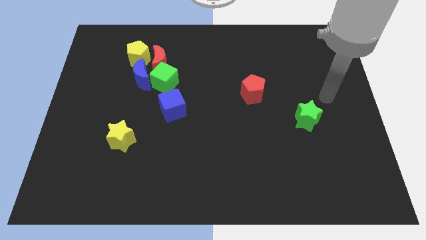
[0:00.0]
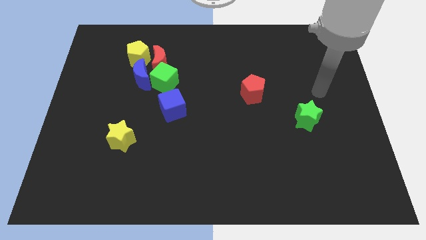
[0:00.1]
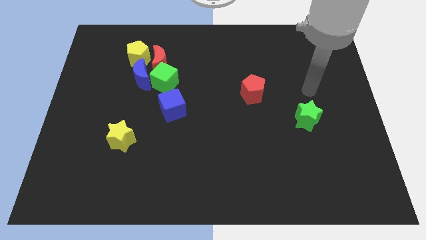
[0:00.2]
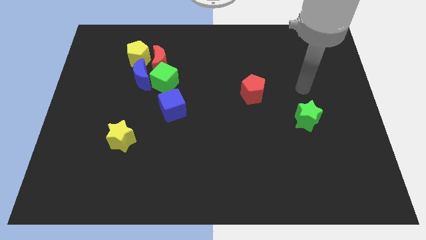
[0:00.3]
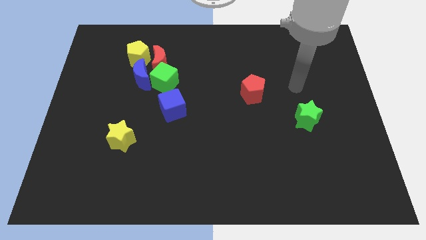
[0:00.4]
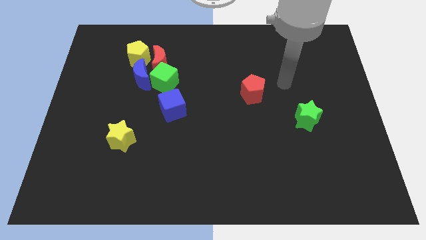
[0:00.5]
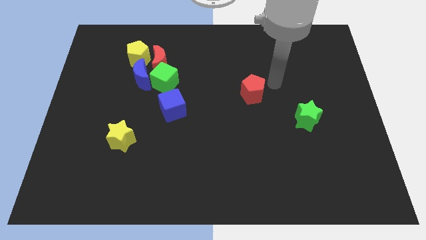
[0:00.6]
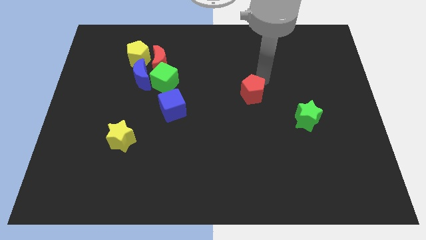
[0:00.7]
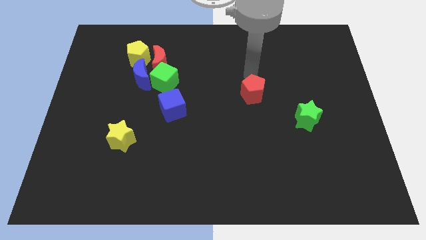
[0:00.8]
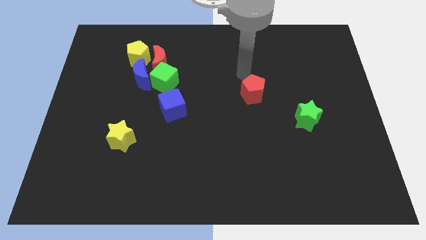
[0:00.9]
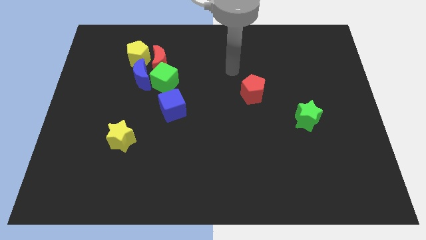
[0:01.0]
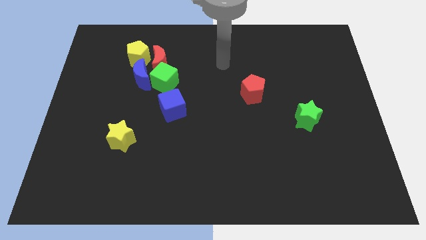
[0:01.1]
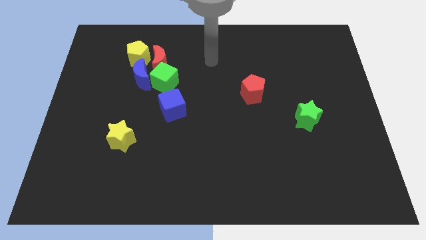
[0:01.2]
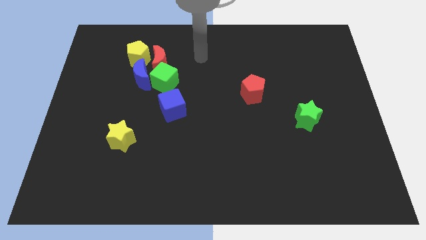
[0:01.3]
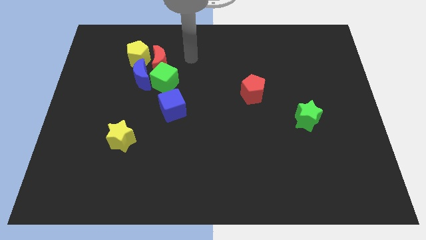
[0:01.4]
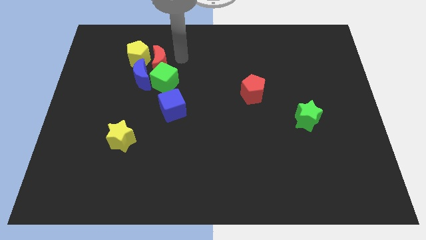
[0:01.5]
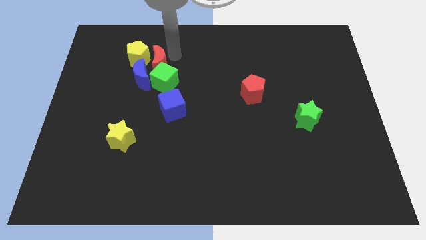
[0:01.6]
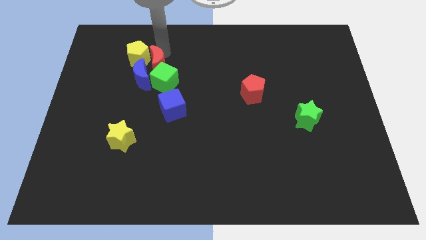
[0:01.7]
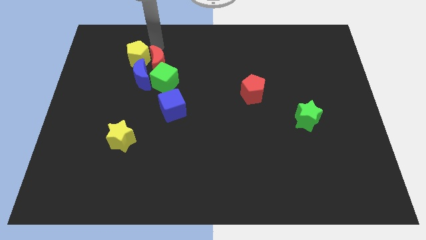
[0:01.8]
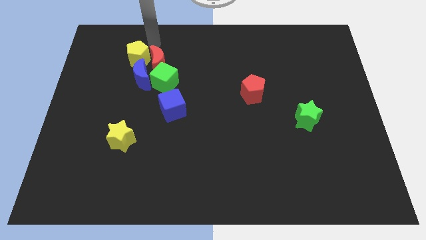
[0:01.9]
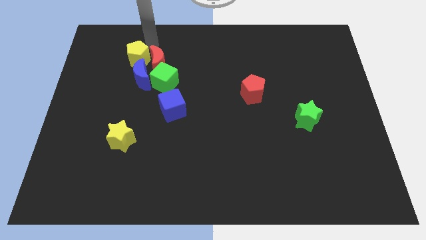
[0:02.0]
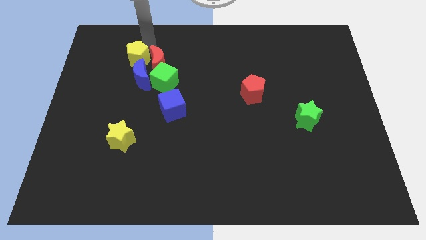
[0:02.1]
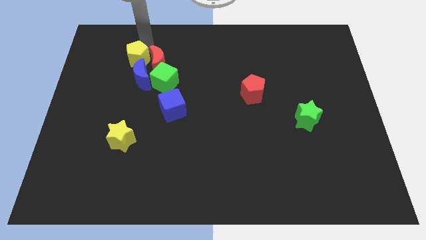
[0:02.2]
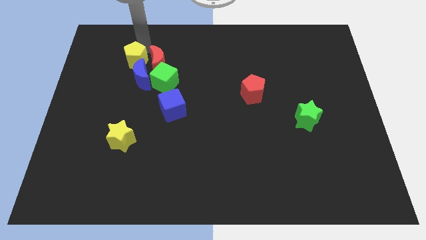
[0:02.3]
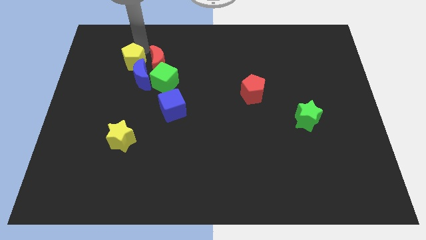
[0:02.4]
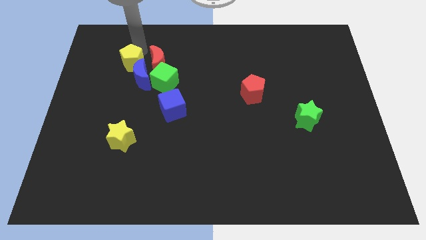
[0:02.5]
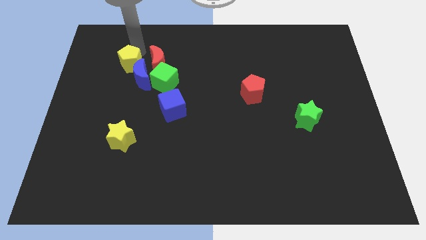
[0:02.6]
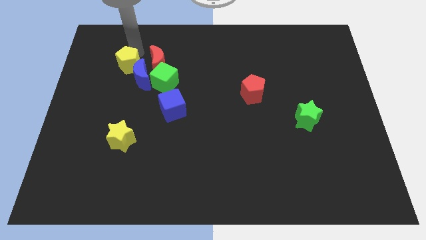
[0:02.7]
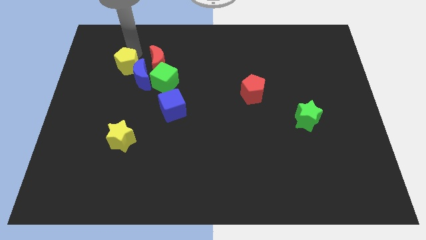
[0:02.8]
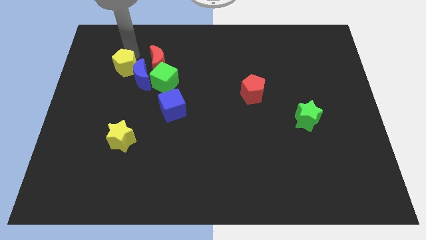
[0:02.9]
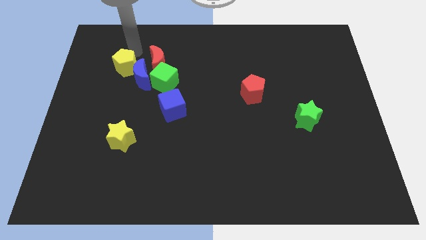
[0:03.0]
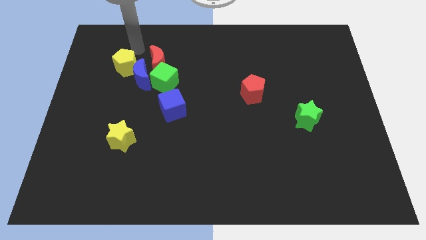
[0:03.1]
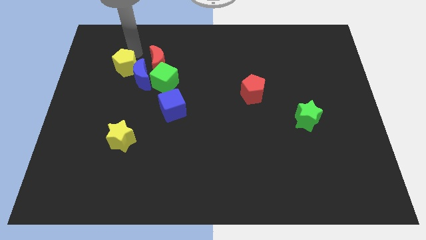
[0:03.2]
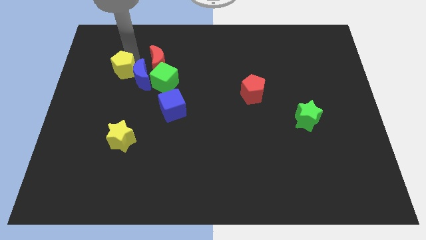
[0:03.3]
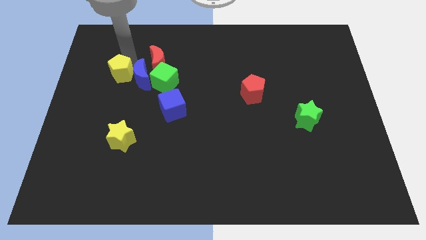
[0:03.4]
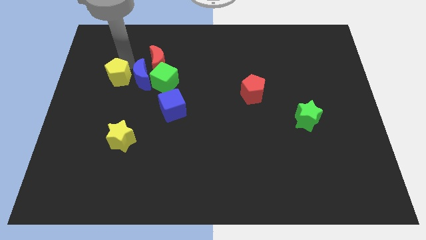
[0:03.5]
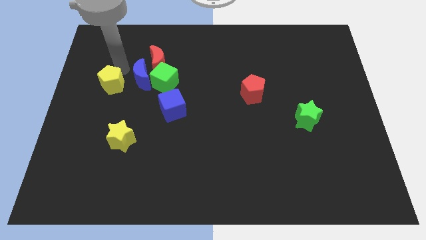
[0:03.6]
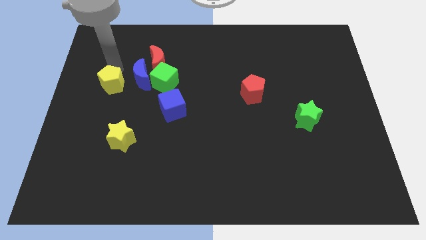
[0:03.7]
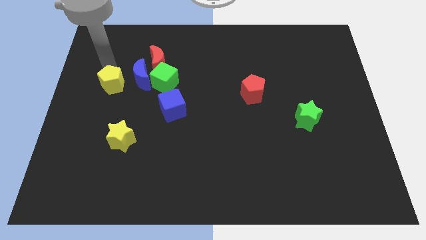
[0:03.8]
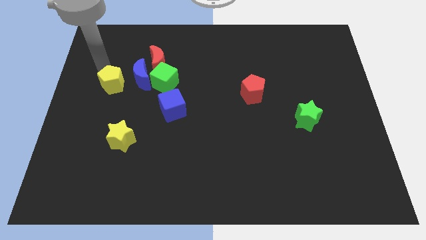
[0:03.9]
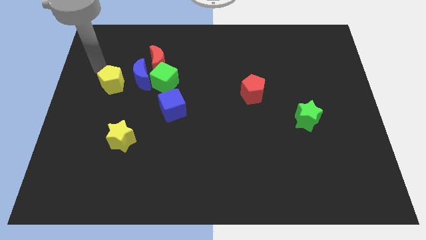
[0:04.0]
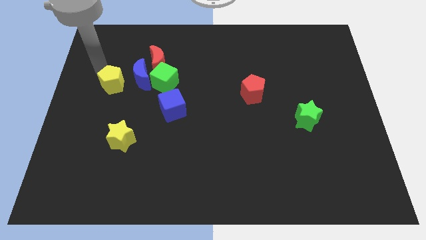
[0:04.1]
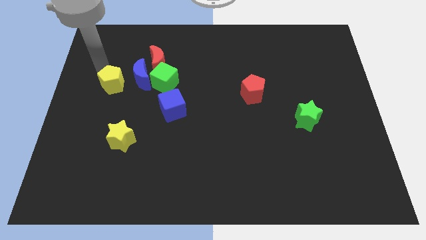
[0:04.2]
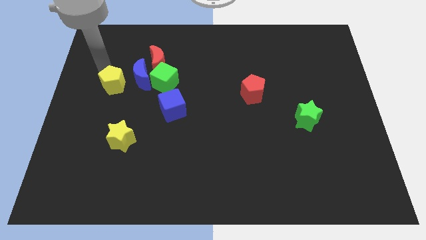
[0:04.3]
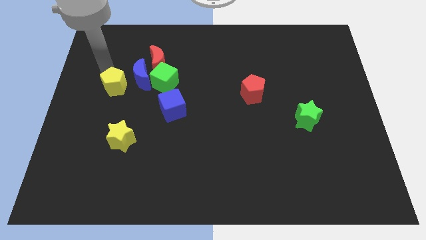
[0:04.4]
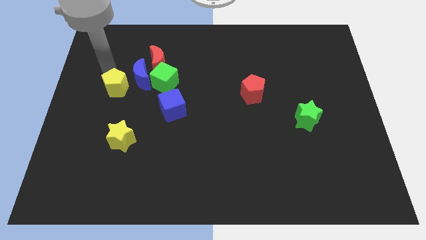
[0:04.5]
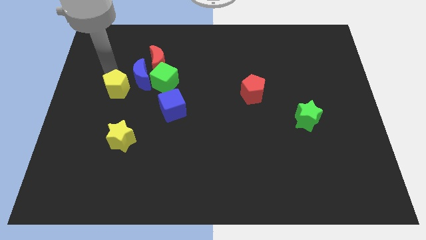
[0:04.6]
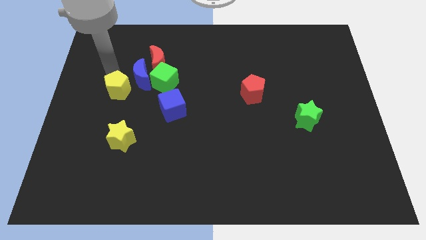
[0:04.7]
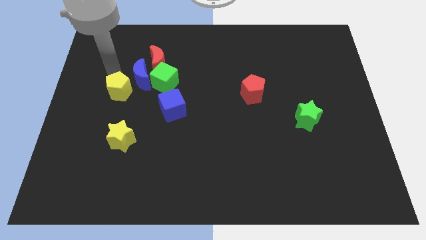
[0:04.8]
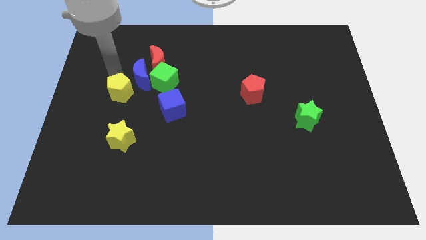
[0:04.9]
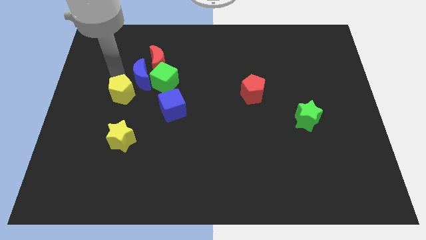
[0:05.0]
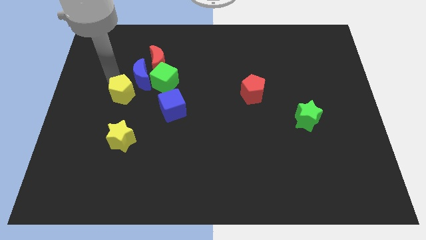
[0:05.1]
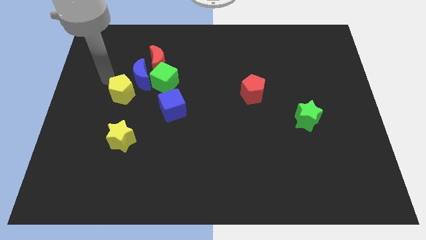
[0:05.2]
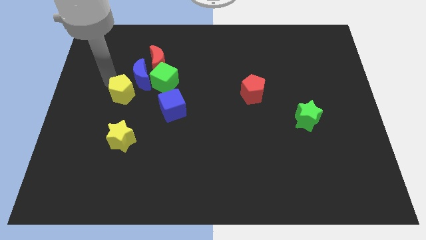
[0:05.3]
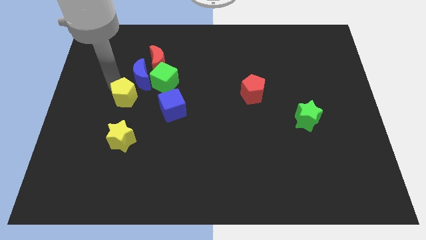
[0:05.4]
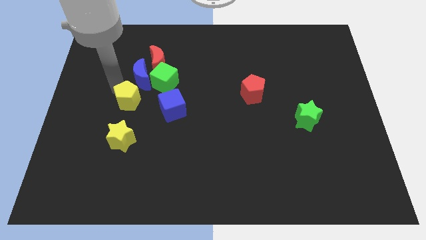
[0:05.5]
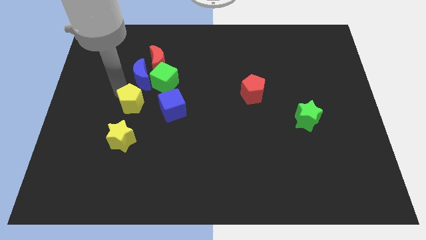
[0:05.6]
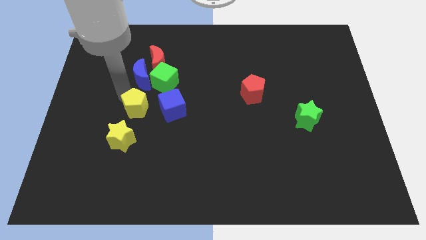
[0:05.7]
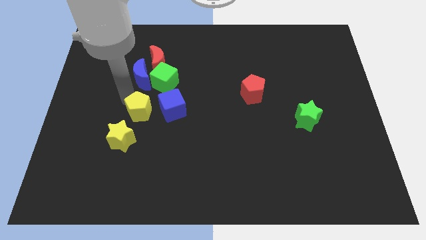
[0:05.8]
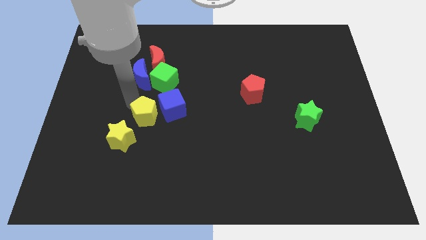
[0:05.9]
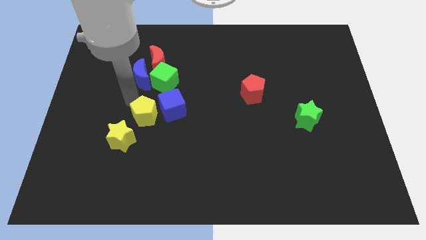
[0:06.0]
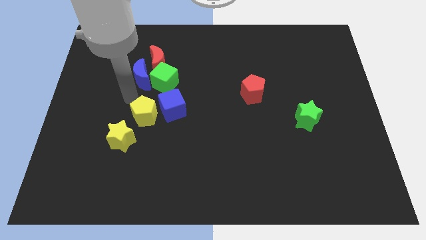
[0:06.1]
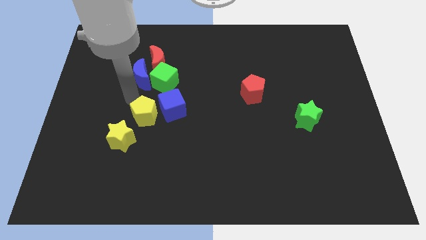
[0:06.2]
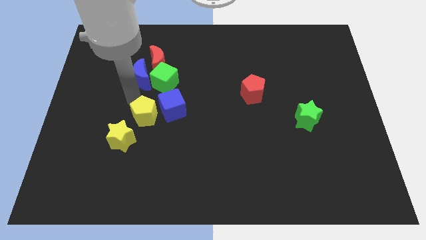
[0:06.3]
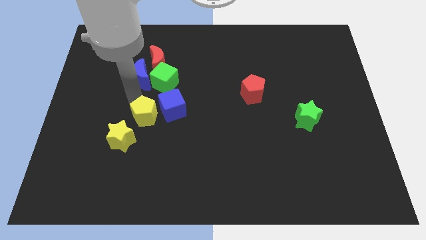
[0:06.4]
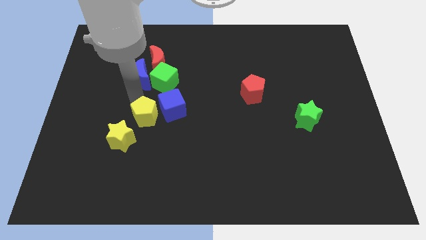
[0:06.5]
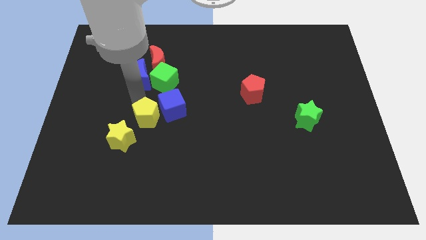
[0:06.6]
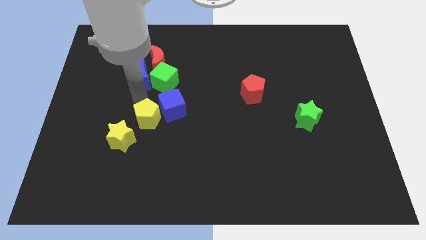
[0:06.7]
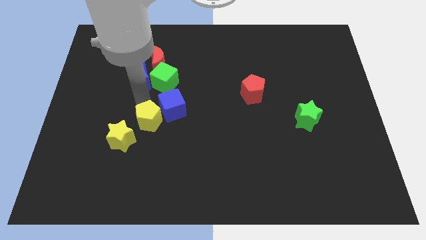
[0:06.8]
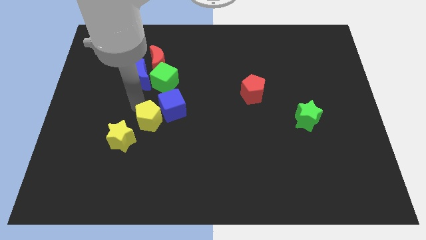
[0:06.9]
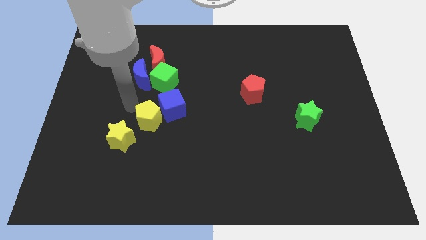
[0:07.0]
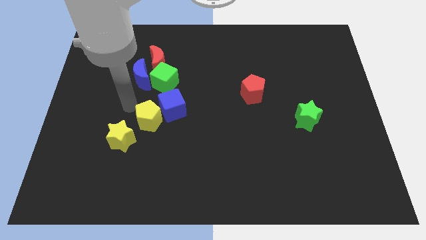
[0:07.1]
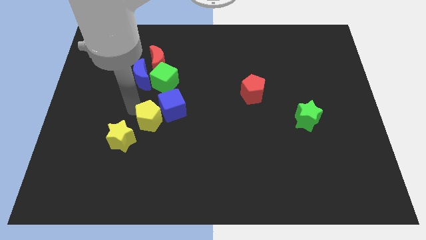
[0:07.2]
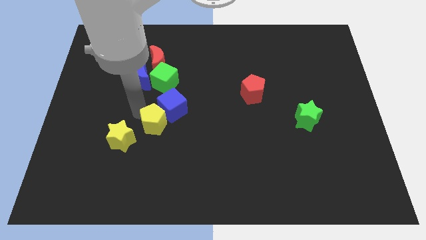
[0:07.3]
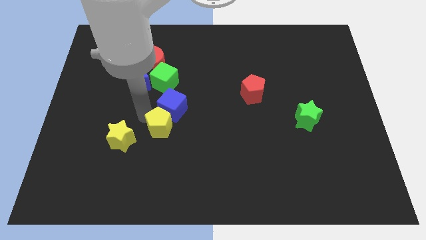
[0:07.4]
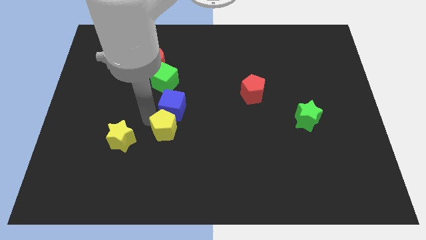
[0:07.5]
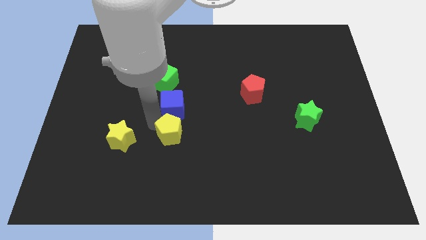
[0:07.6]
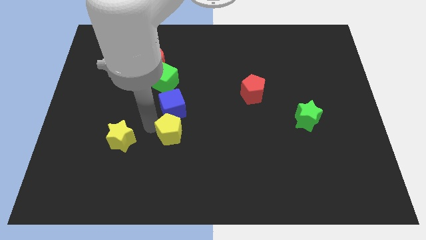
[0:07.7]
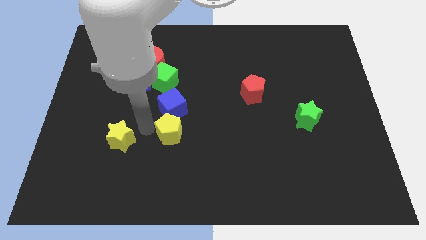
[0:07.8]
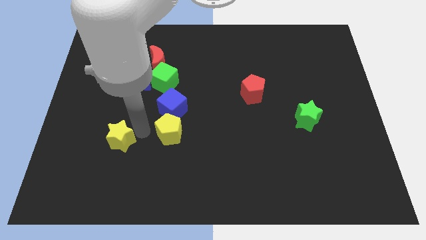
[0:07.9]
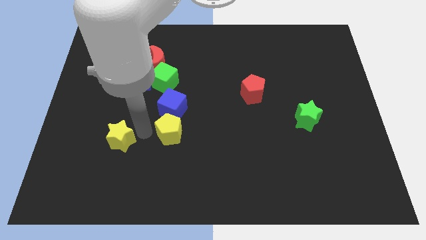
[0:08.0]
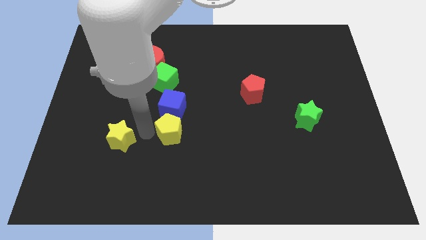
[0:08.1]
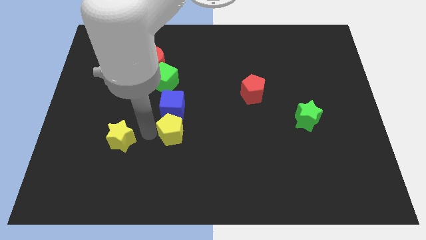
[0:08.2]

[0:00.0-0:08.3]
push the yellow pentagon down and then to the right

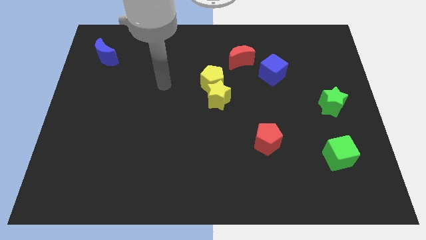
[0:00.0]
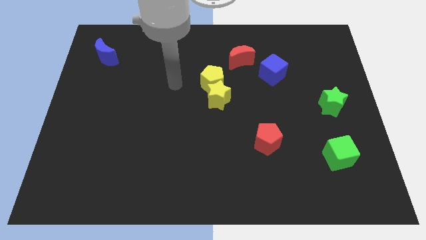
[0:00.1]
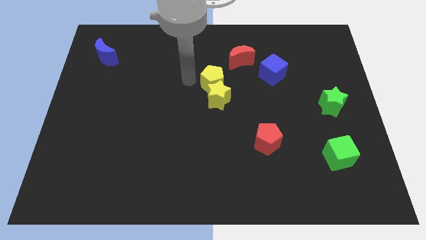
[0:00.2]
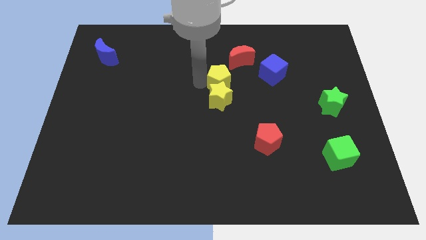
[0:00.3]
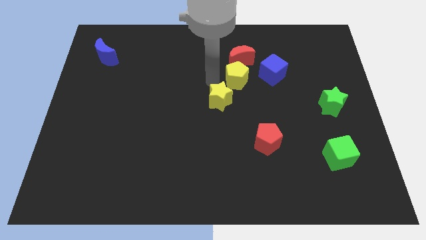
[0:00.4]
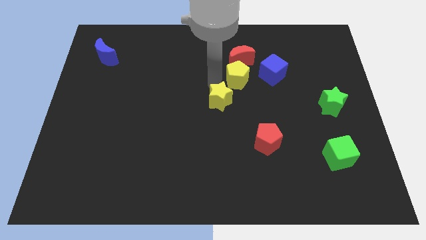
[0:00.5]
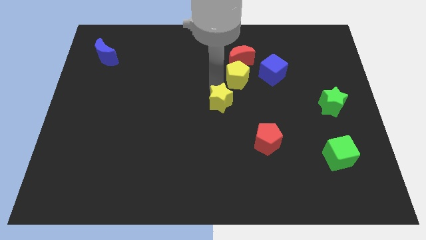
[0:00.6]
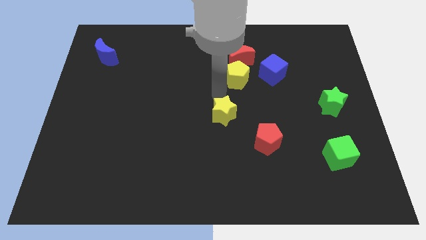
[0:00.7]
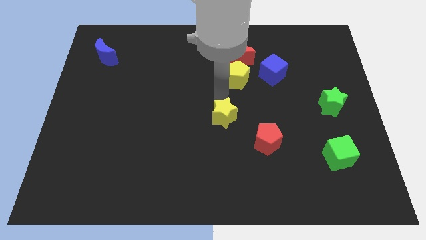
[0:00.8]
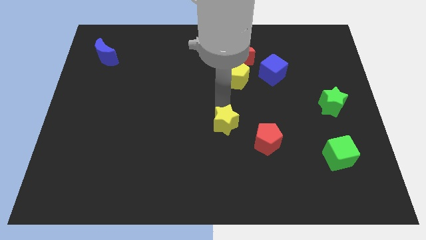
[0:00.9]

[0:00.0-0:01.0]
move the yellow star downwards a little bit
